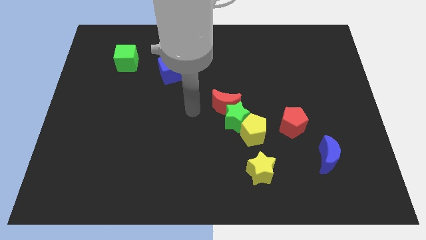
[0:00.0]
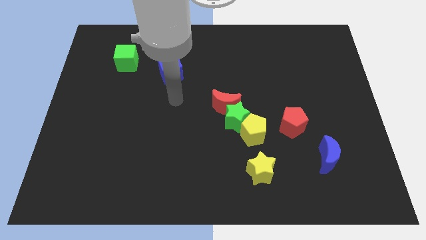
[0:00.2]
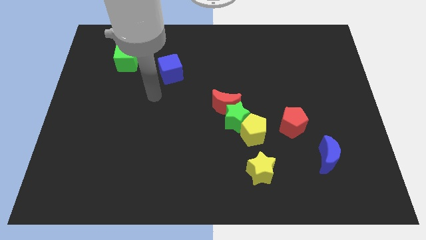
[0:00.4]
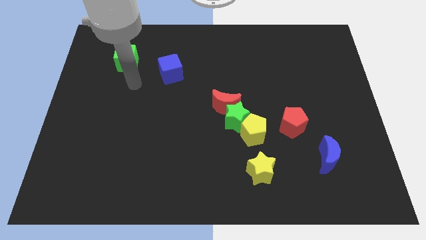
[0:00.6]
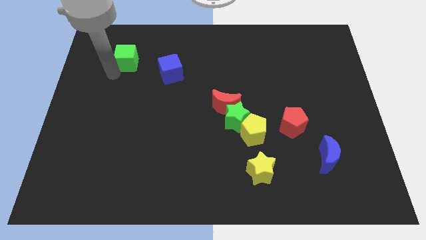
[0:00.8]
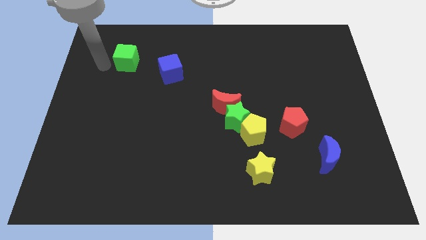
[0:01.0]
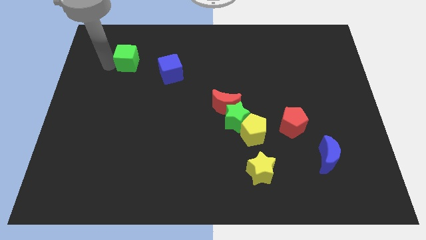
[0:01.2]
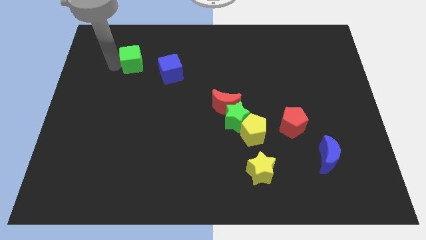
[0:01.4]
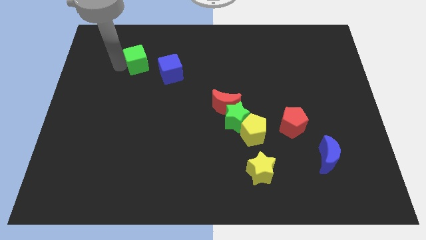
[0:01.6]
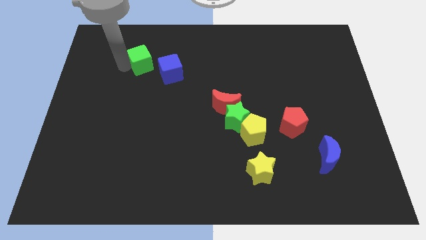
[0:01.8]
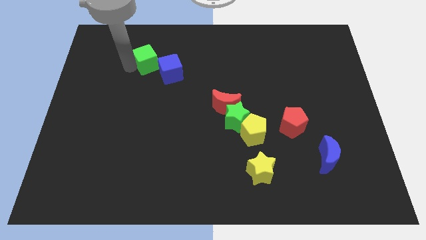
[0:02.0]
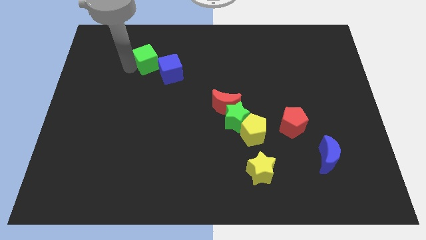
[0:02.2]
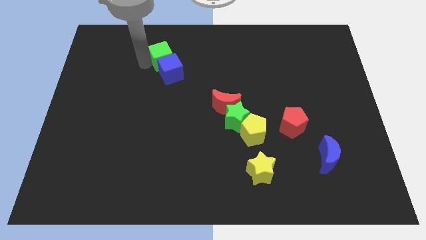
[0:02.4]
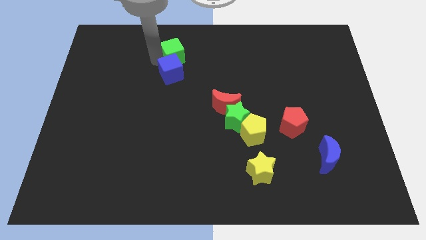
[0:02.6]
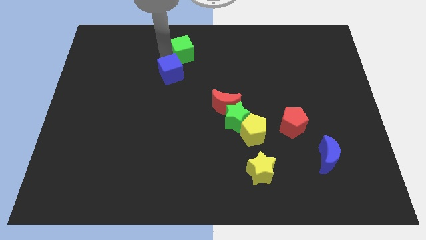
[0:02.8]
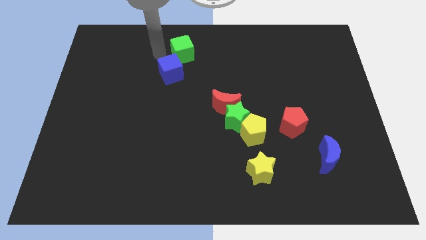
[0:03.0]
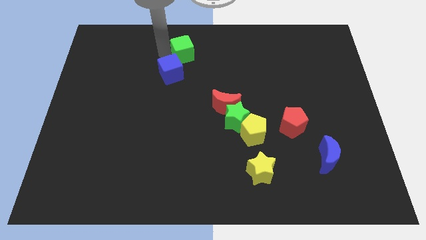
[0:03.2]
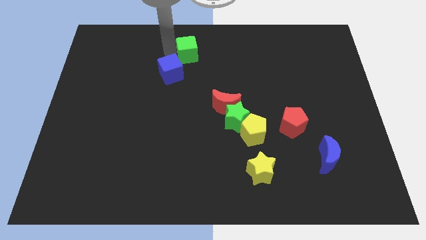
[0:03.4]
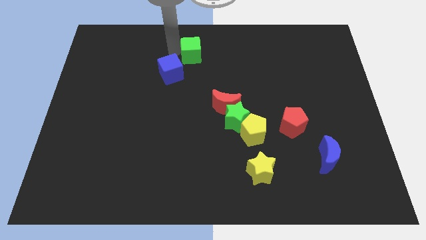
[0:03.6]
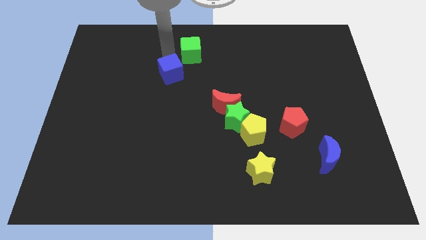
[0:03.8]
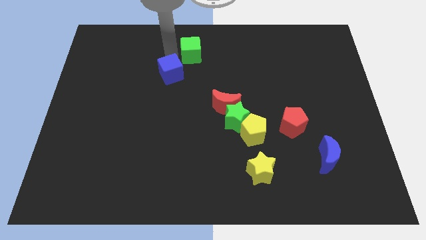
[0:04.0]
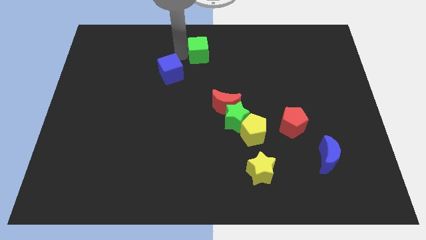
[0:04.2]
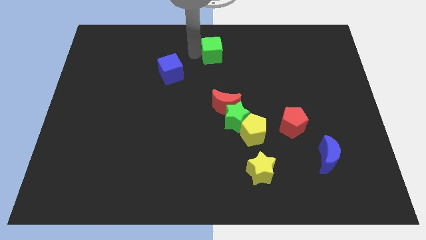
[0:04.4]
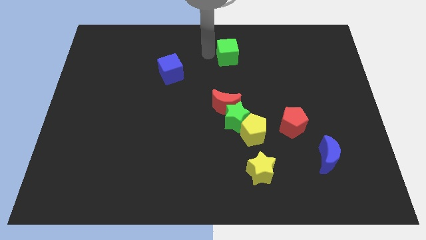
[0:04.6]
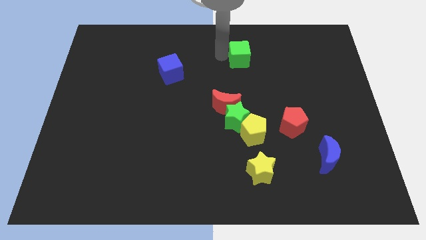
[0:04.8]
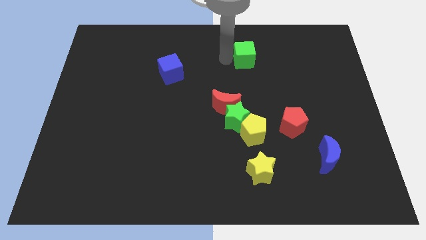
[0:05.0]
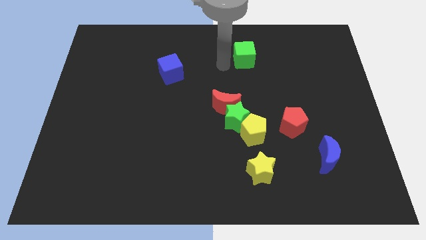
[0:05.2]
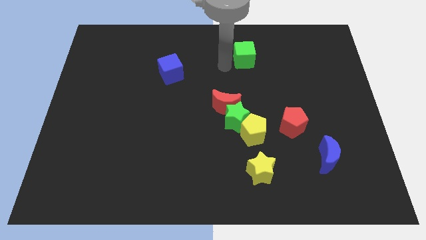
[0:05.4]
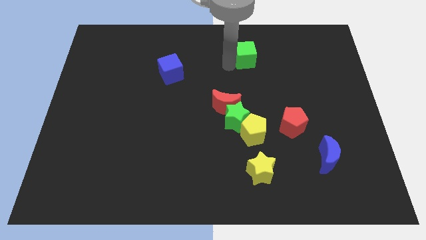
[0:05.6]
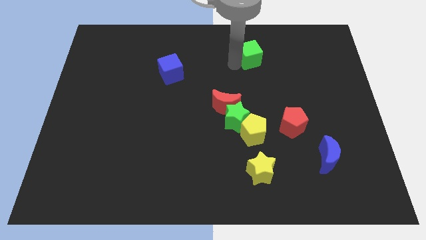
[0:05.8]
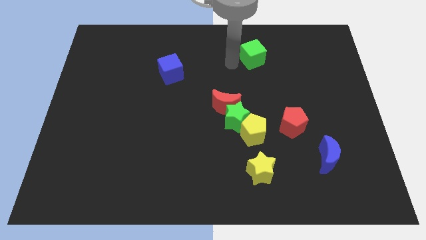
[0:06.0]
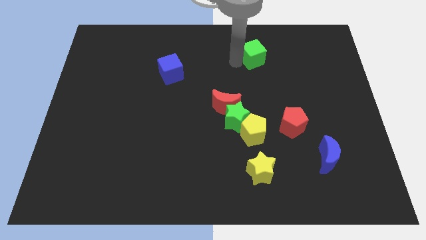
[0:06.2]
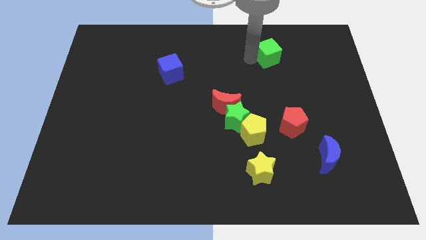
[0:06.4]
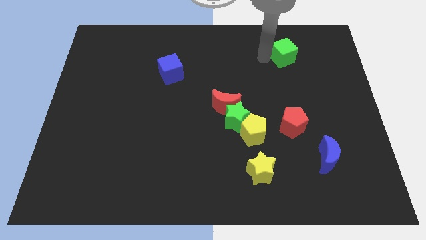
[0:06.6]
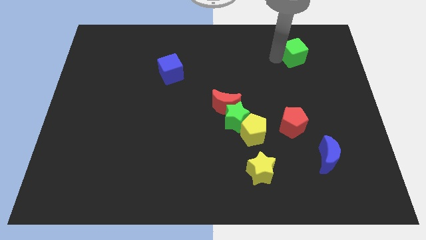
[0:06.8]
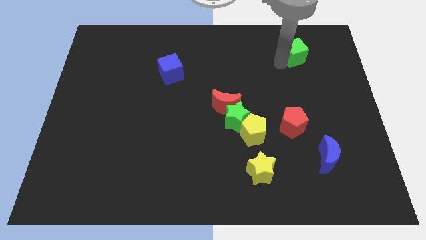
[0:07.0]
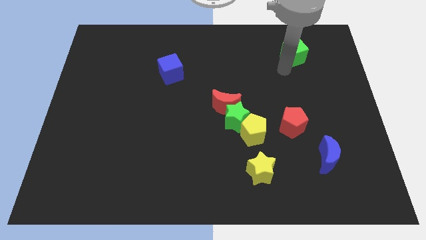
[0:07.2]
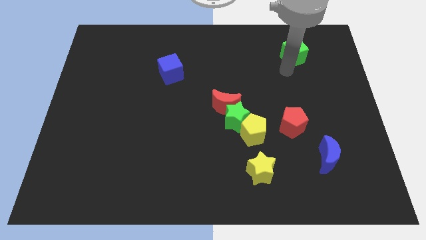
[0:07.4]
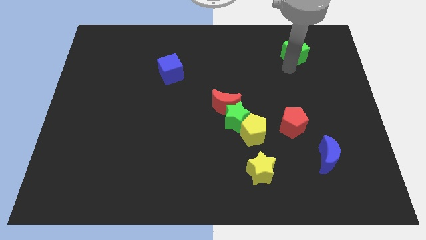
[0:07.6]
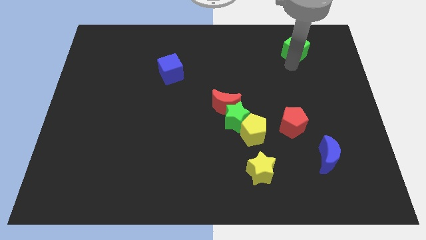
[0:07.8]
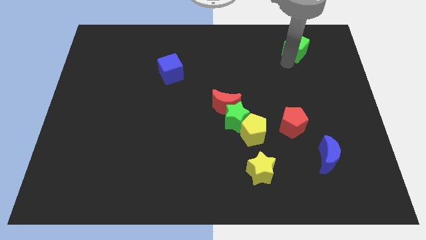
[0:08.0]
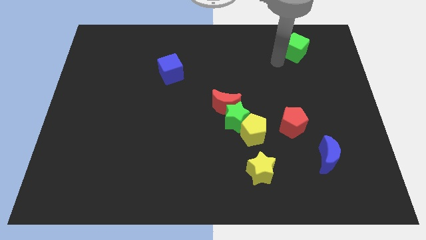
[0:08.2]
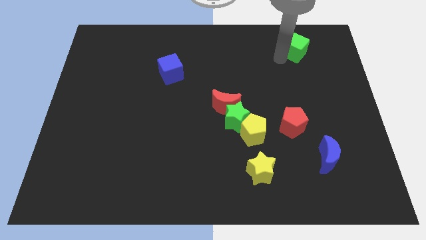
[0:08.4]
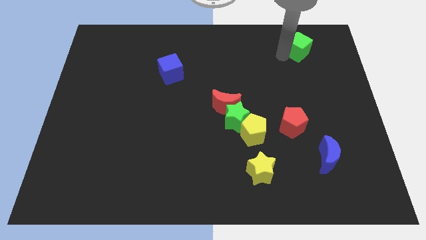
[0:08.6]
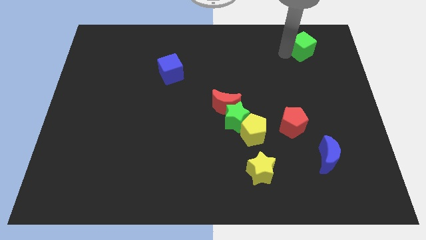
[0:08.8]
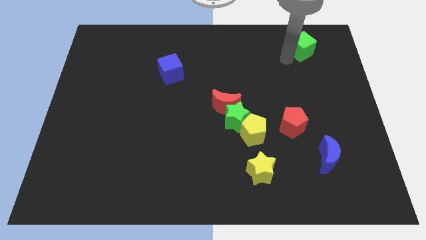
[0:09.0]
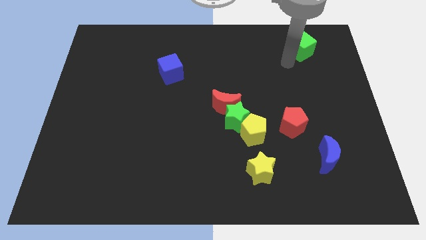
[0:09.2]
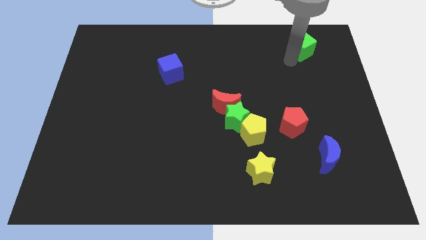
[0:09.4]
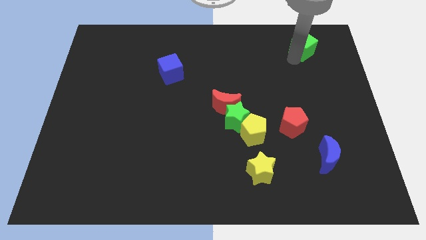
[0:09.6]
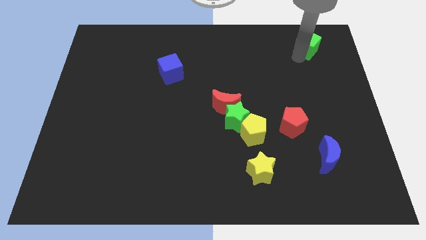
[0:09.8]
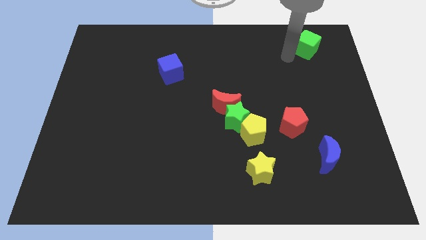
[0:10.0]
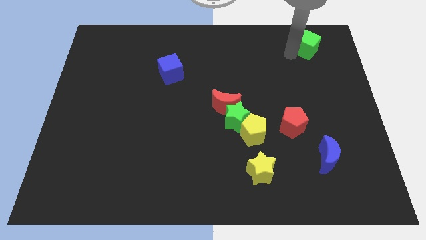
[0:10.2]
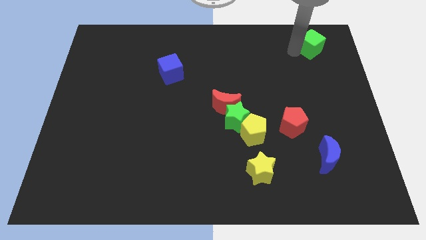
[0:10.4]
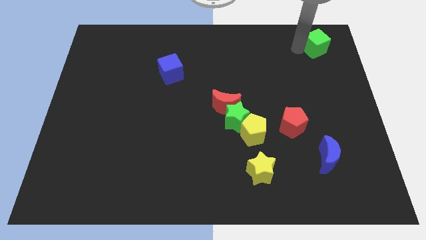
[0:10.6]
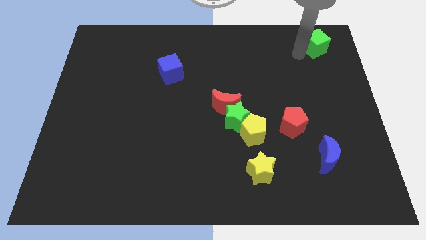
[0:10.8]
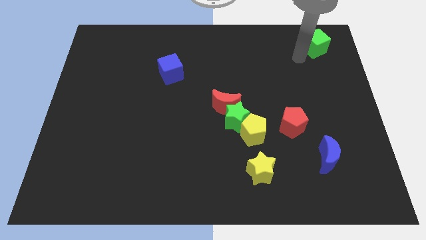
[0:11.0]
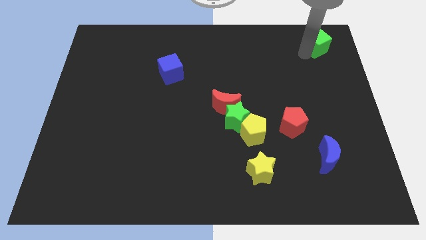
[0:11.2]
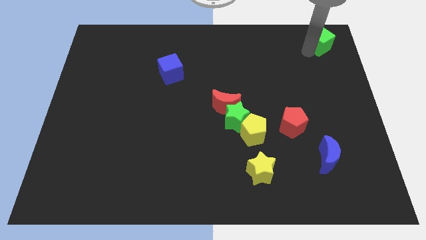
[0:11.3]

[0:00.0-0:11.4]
push the green cube to the top right corner

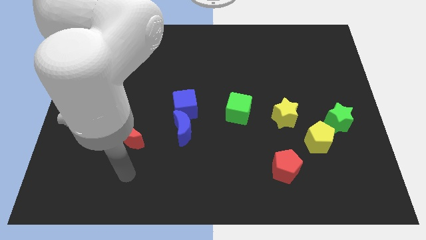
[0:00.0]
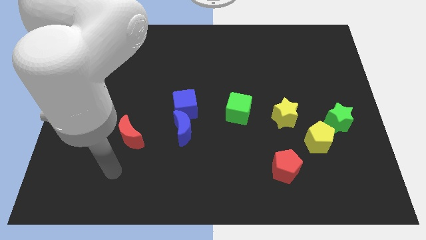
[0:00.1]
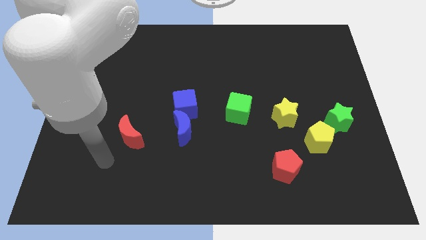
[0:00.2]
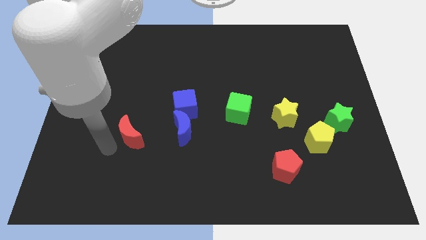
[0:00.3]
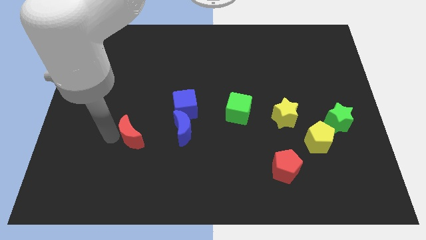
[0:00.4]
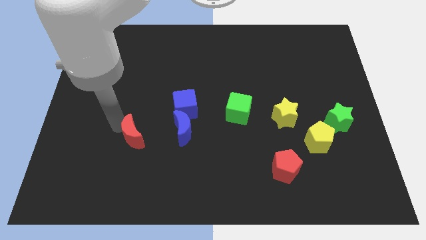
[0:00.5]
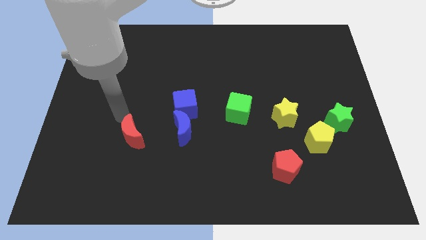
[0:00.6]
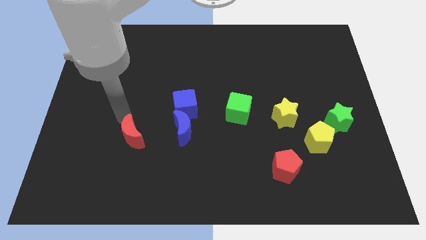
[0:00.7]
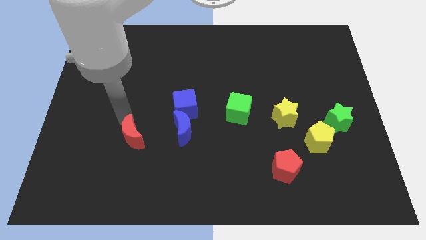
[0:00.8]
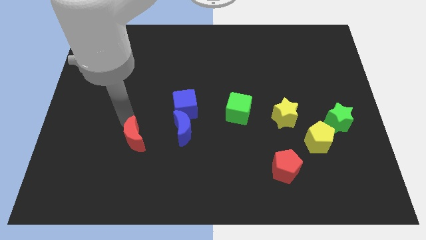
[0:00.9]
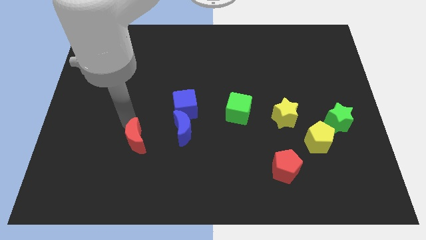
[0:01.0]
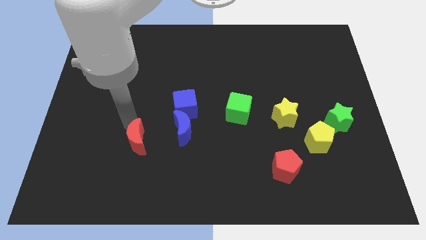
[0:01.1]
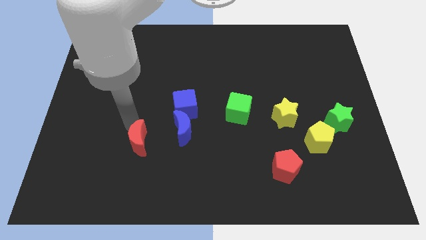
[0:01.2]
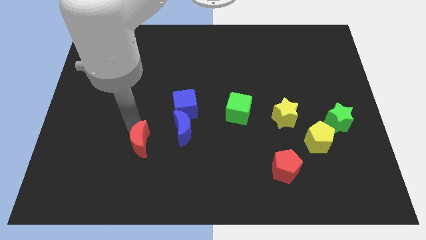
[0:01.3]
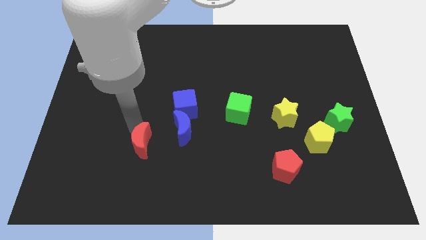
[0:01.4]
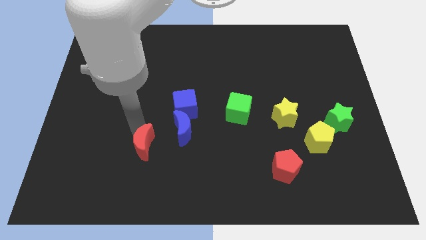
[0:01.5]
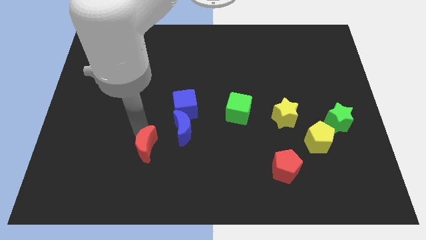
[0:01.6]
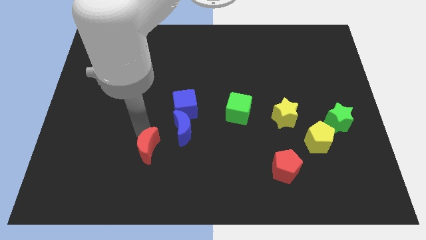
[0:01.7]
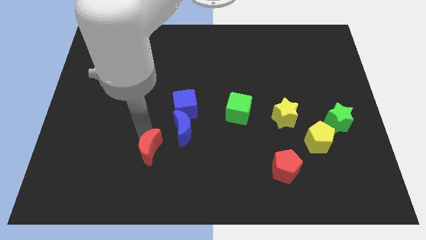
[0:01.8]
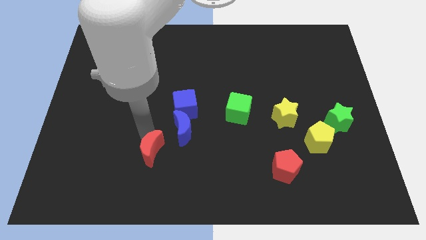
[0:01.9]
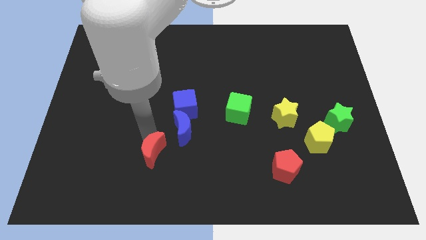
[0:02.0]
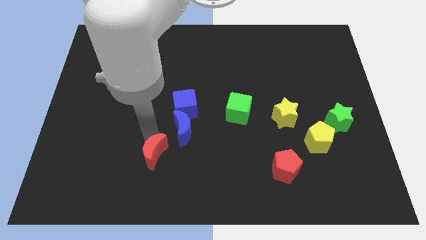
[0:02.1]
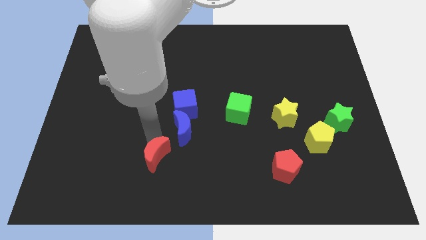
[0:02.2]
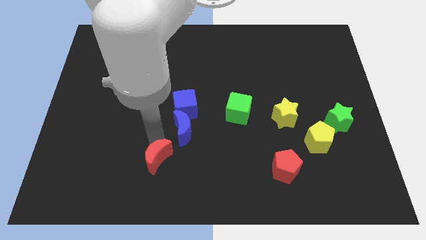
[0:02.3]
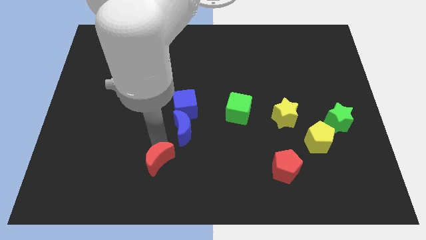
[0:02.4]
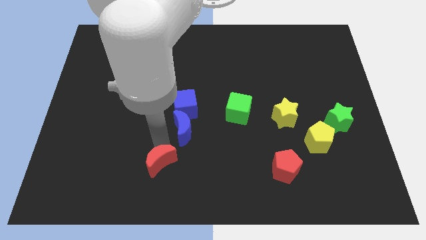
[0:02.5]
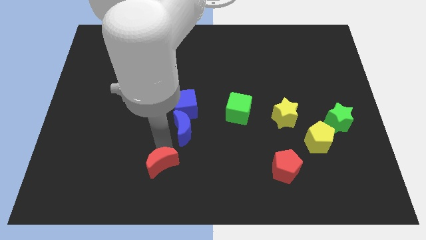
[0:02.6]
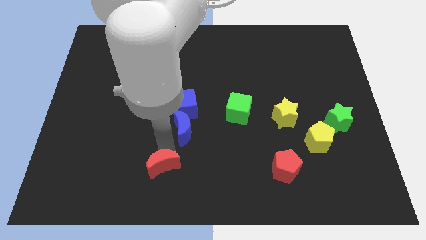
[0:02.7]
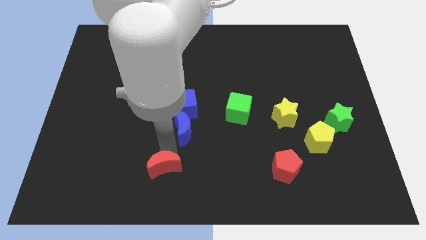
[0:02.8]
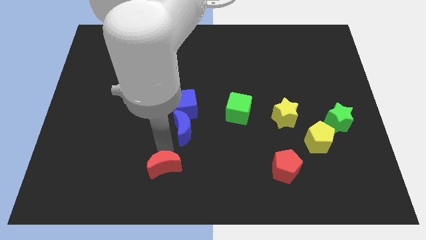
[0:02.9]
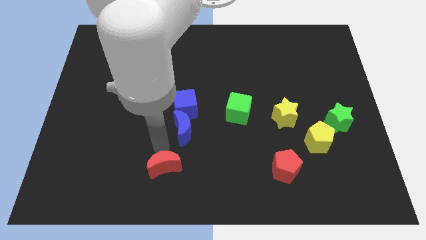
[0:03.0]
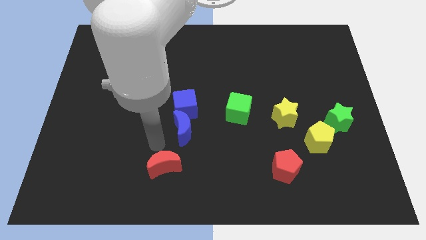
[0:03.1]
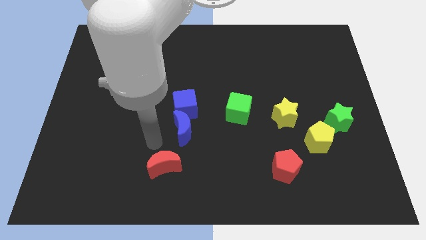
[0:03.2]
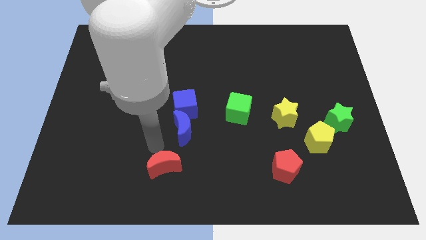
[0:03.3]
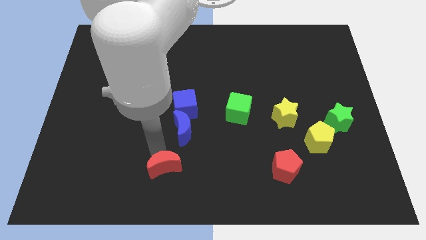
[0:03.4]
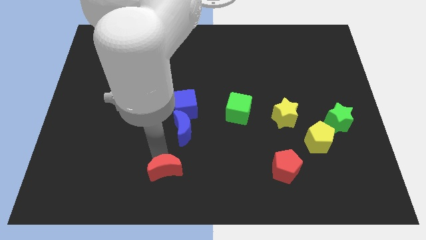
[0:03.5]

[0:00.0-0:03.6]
push the red moon to the bottom side
